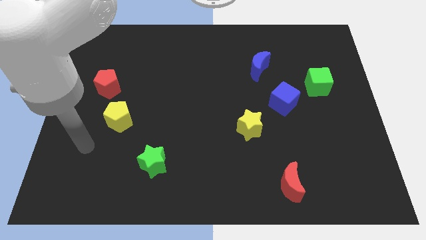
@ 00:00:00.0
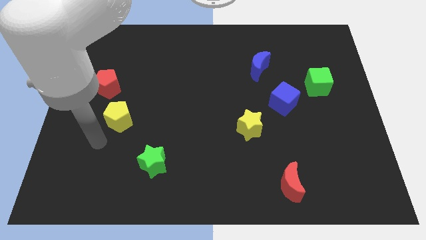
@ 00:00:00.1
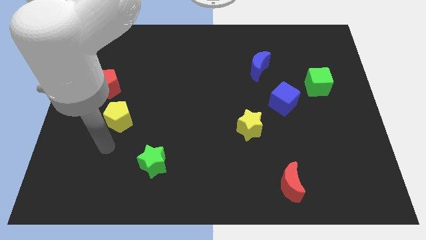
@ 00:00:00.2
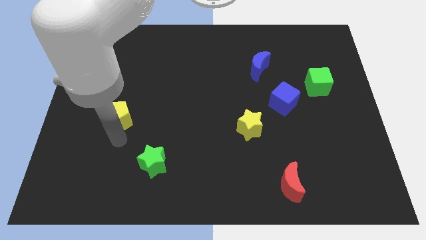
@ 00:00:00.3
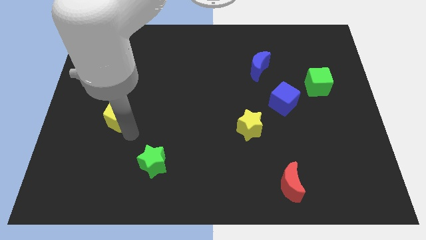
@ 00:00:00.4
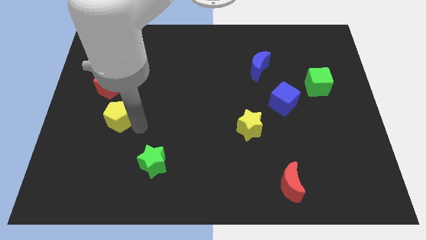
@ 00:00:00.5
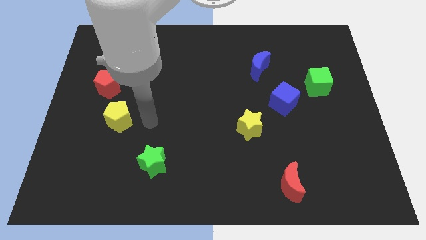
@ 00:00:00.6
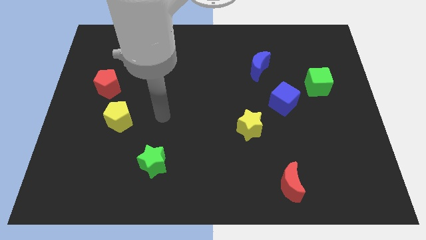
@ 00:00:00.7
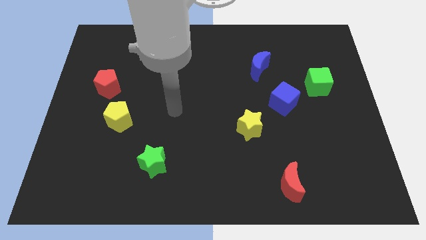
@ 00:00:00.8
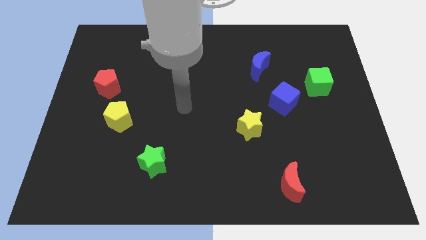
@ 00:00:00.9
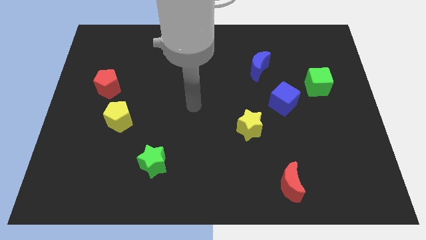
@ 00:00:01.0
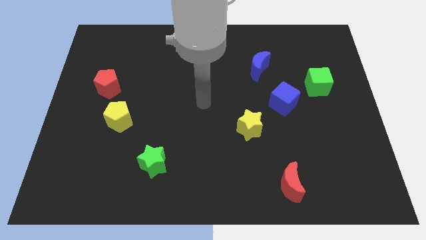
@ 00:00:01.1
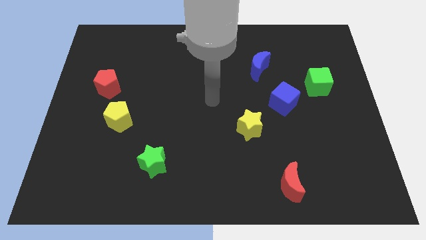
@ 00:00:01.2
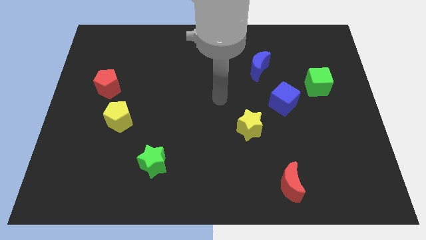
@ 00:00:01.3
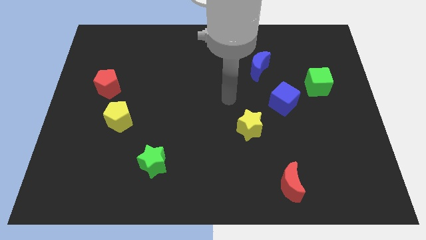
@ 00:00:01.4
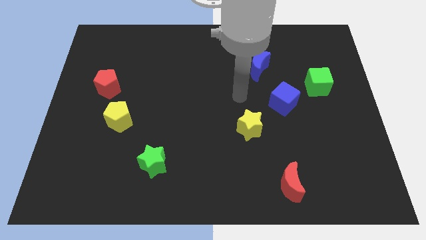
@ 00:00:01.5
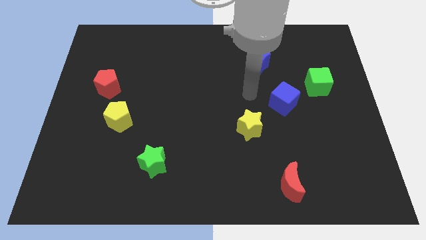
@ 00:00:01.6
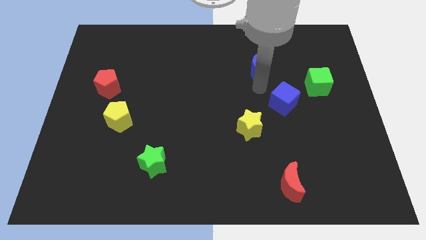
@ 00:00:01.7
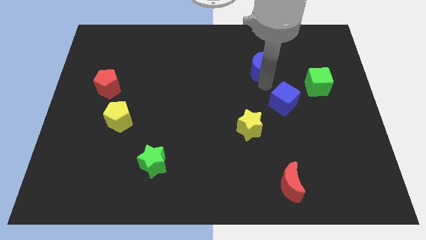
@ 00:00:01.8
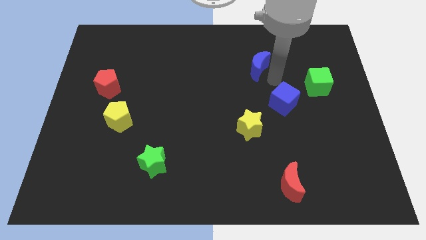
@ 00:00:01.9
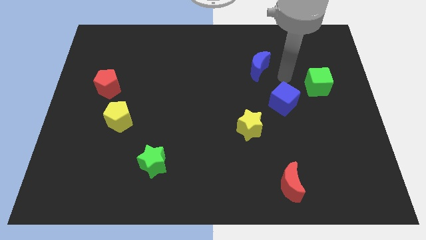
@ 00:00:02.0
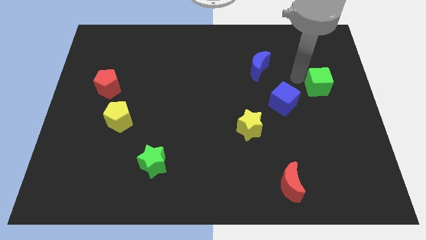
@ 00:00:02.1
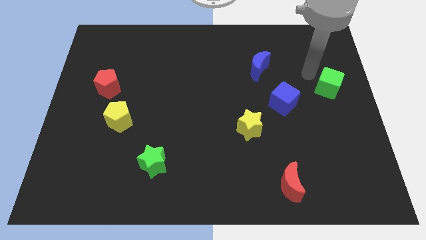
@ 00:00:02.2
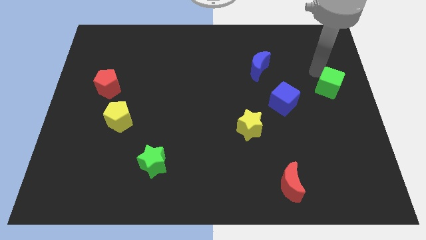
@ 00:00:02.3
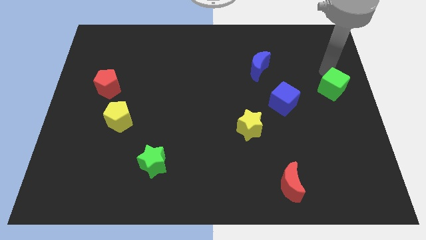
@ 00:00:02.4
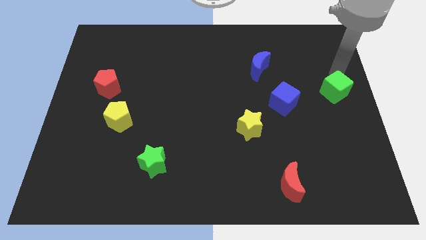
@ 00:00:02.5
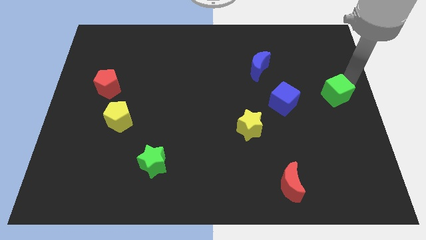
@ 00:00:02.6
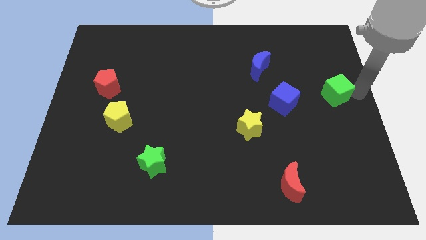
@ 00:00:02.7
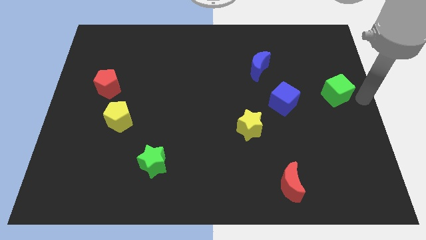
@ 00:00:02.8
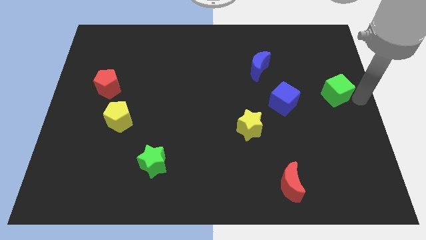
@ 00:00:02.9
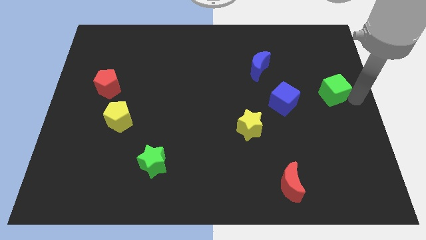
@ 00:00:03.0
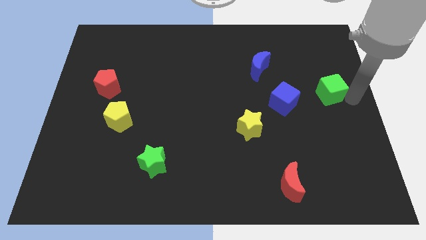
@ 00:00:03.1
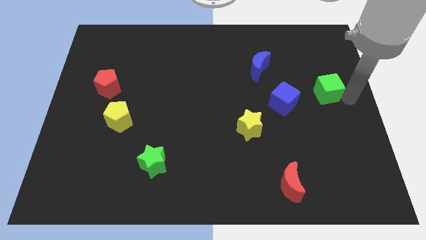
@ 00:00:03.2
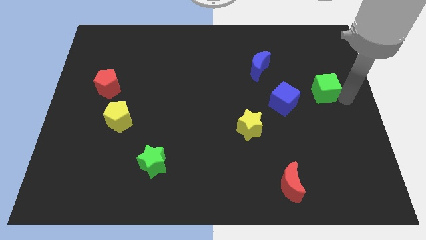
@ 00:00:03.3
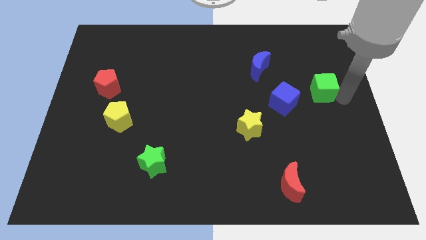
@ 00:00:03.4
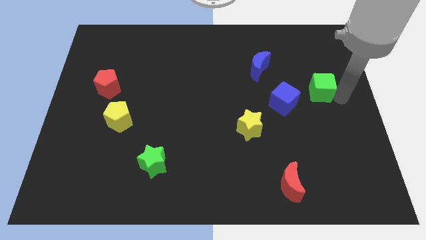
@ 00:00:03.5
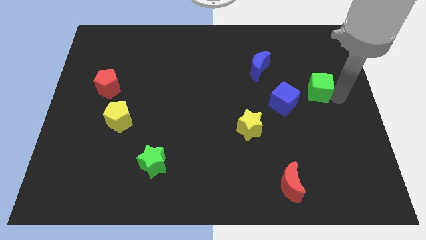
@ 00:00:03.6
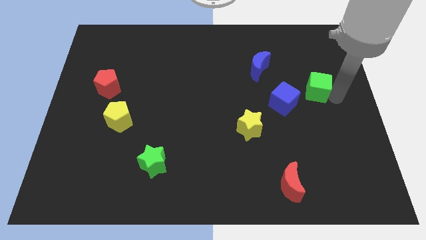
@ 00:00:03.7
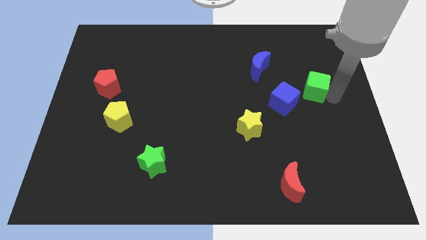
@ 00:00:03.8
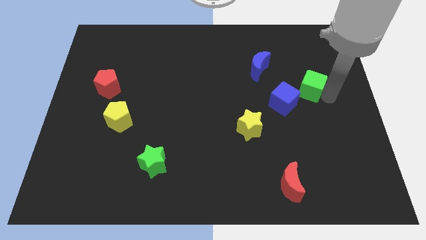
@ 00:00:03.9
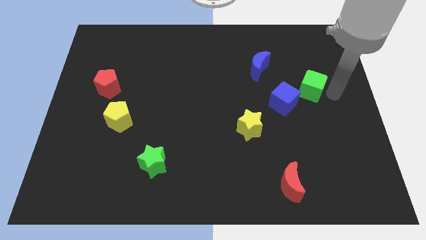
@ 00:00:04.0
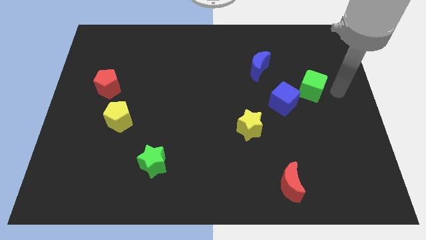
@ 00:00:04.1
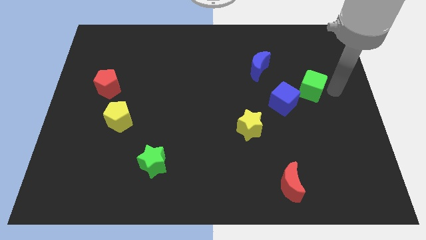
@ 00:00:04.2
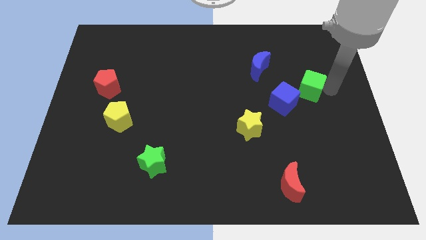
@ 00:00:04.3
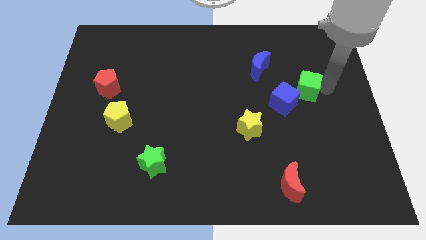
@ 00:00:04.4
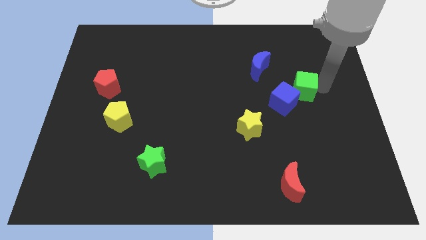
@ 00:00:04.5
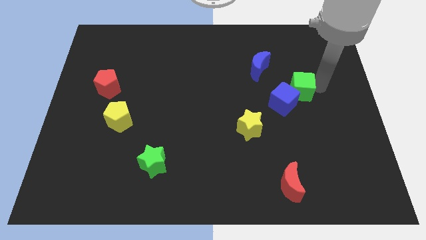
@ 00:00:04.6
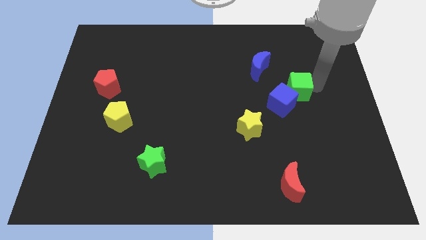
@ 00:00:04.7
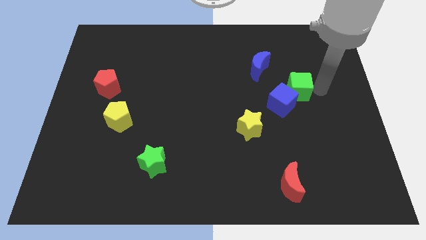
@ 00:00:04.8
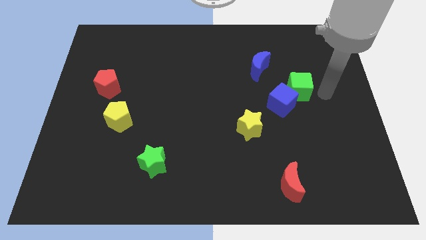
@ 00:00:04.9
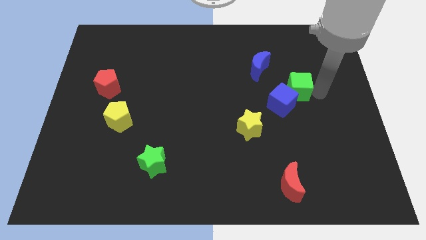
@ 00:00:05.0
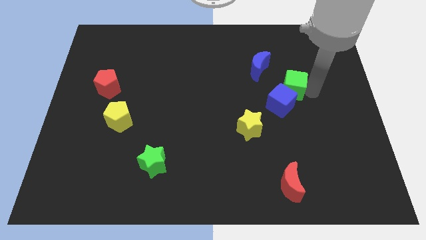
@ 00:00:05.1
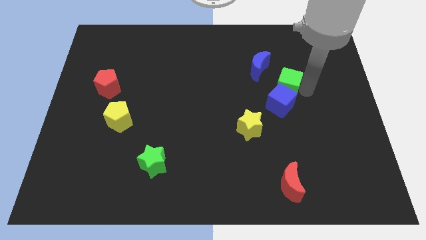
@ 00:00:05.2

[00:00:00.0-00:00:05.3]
slide the green cube to the left a little

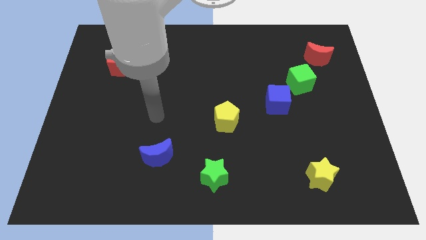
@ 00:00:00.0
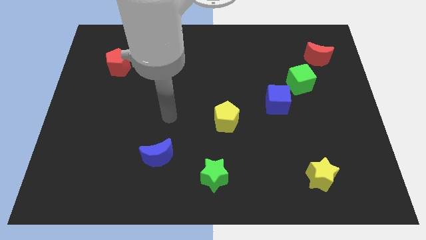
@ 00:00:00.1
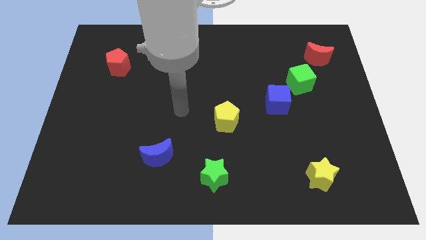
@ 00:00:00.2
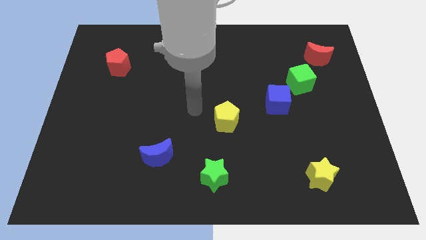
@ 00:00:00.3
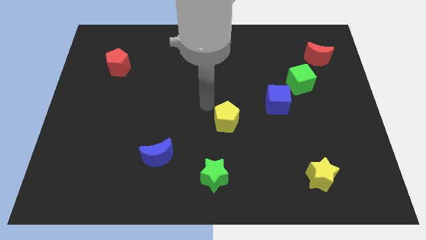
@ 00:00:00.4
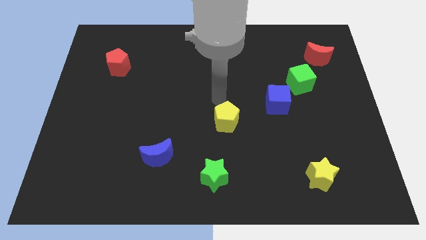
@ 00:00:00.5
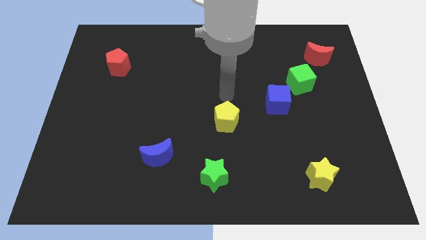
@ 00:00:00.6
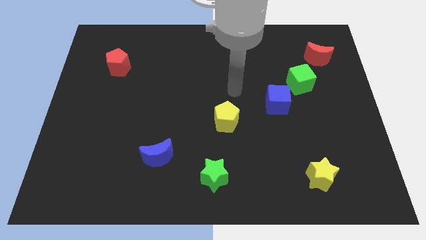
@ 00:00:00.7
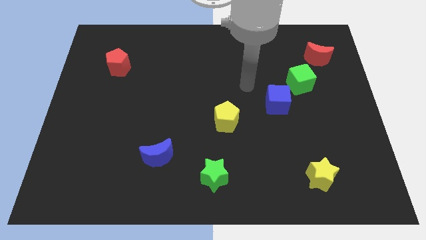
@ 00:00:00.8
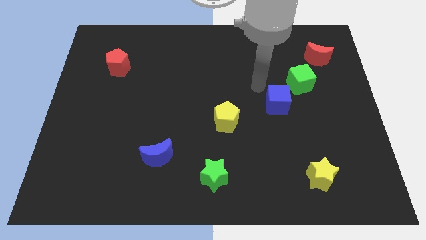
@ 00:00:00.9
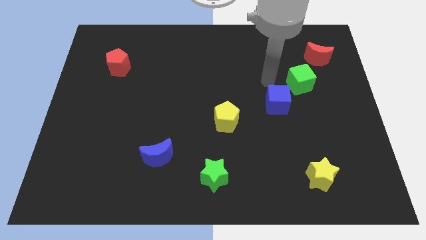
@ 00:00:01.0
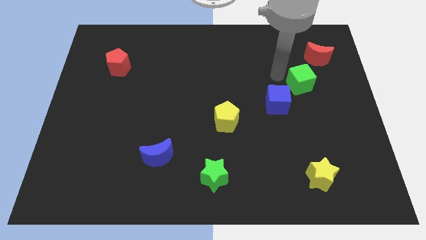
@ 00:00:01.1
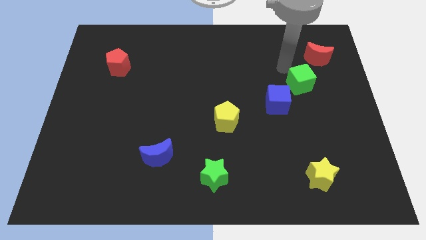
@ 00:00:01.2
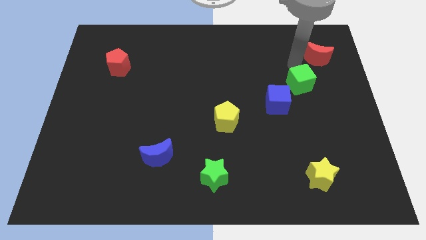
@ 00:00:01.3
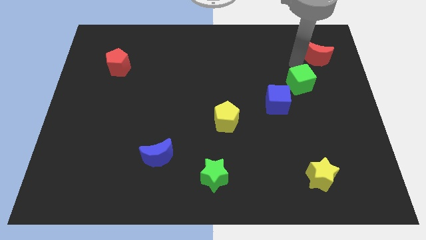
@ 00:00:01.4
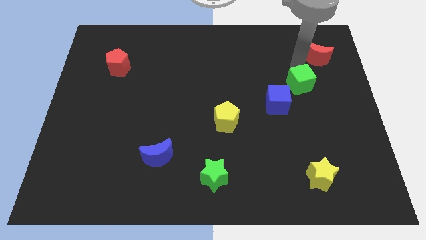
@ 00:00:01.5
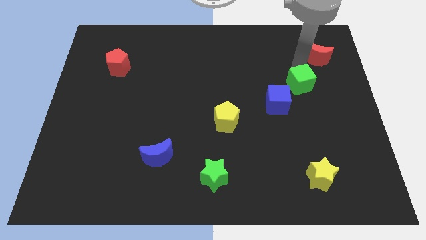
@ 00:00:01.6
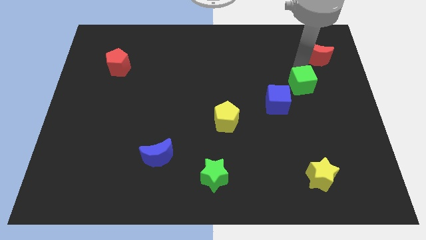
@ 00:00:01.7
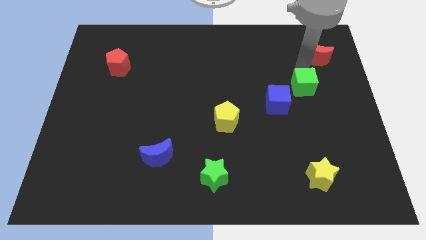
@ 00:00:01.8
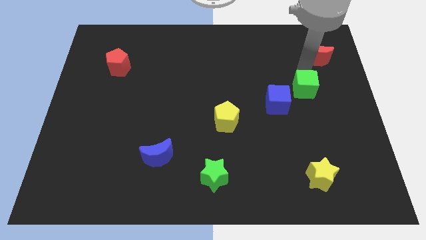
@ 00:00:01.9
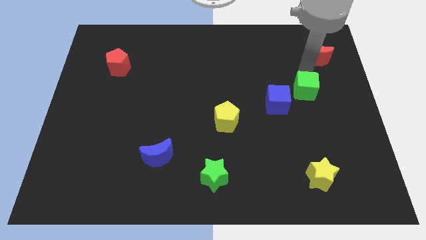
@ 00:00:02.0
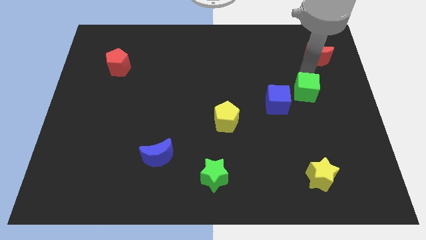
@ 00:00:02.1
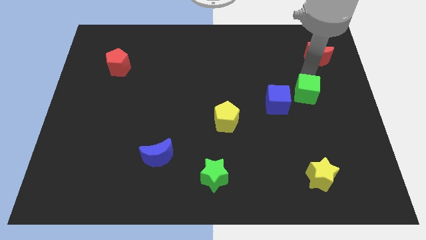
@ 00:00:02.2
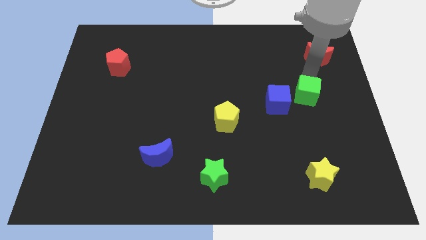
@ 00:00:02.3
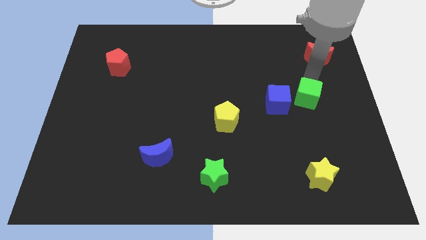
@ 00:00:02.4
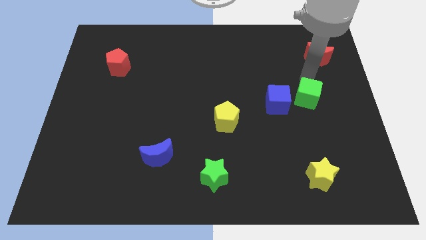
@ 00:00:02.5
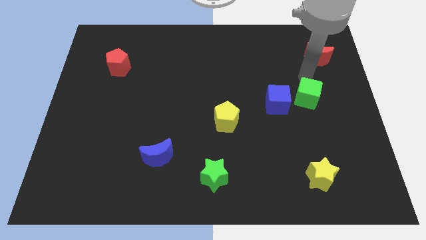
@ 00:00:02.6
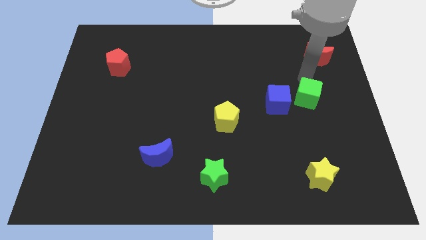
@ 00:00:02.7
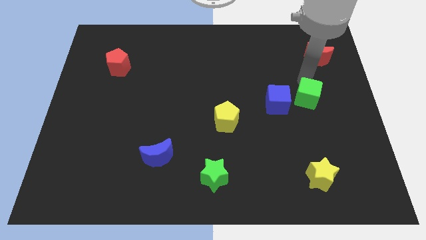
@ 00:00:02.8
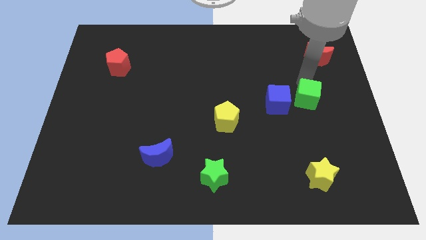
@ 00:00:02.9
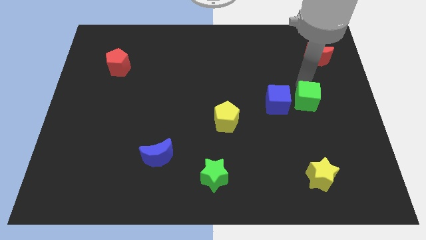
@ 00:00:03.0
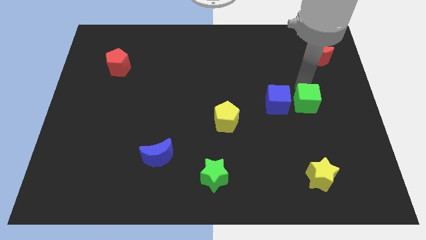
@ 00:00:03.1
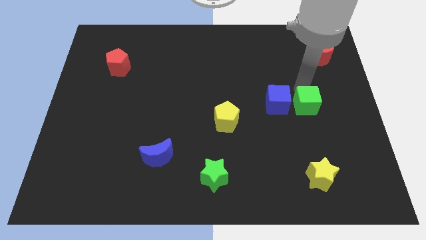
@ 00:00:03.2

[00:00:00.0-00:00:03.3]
push the green cube downwards somewhat
